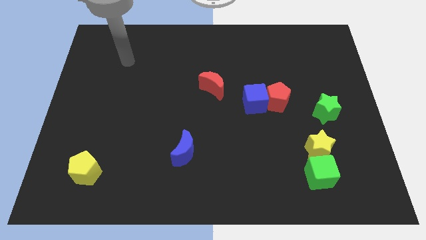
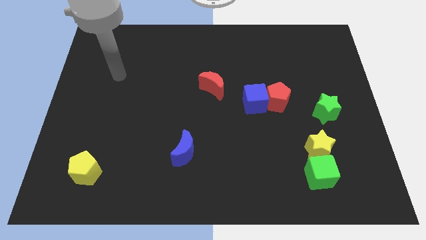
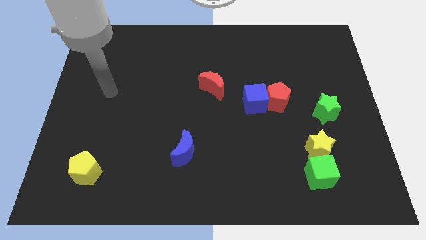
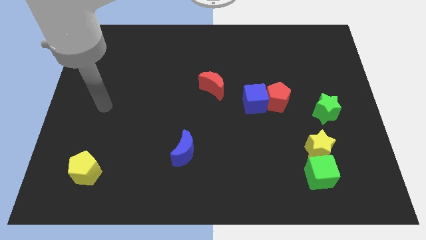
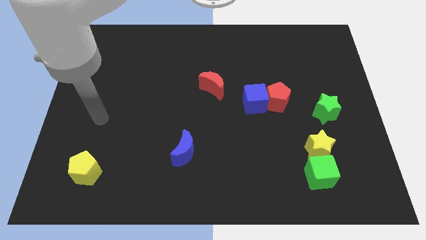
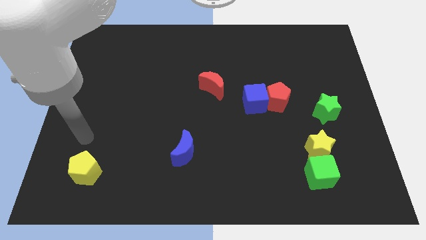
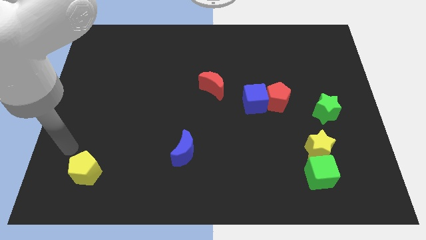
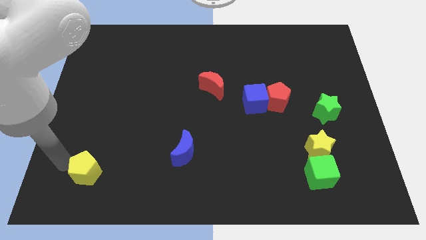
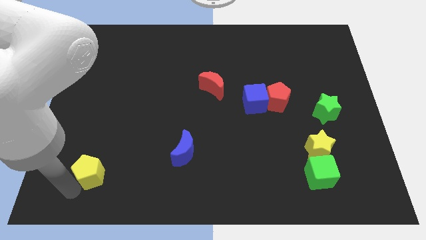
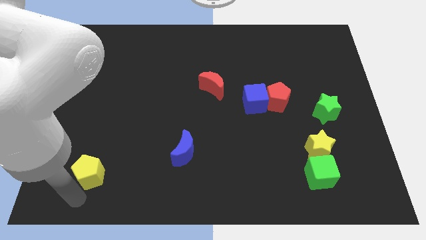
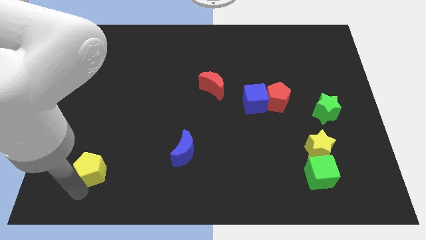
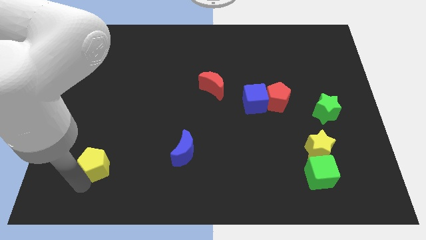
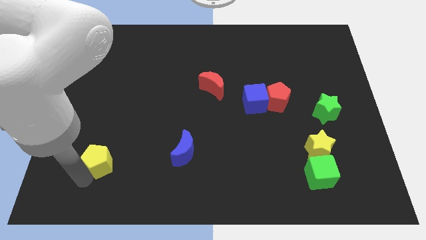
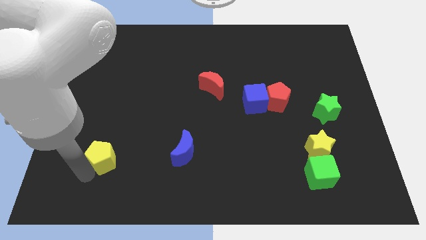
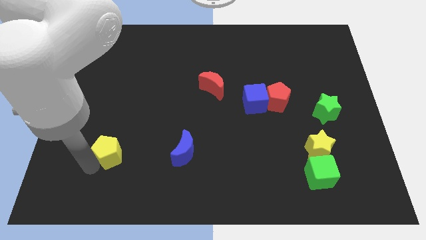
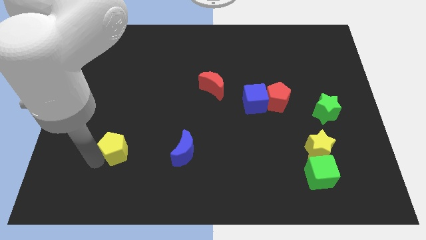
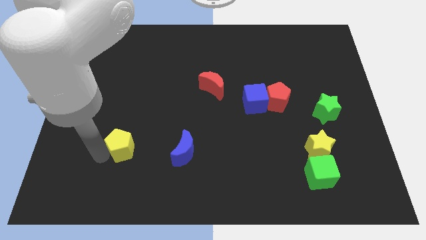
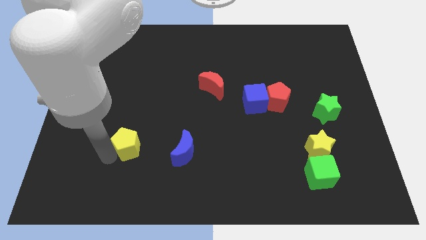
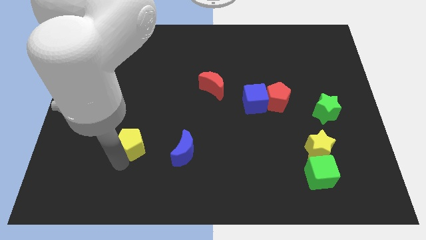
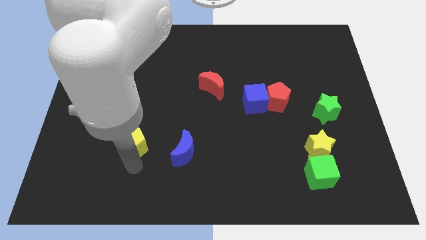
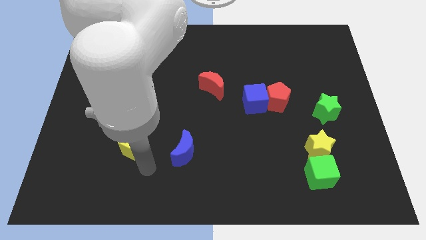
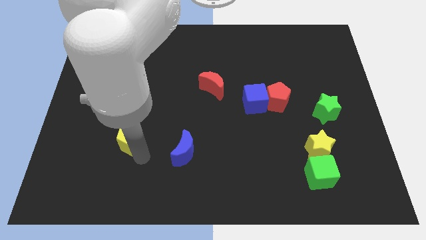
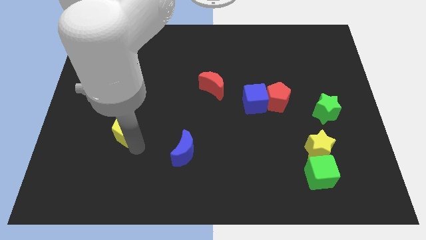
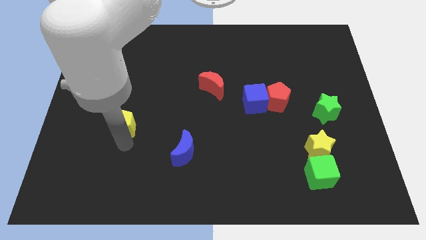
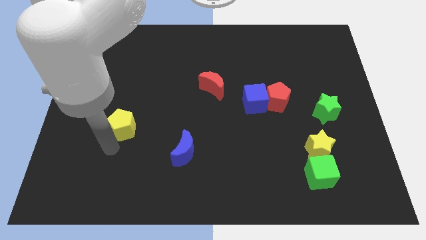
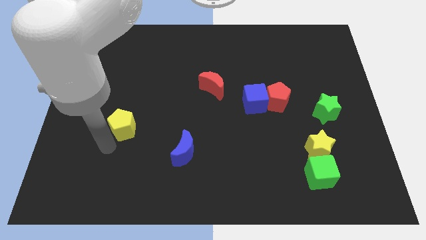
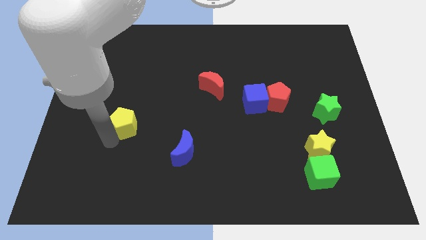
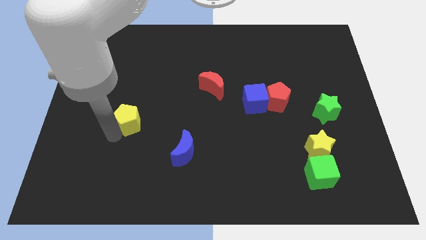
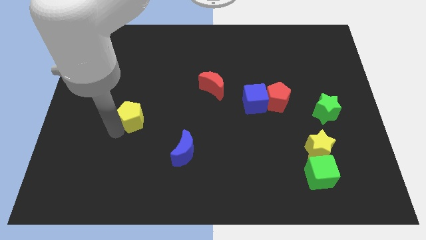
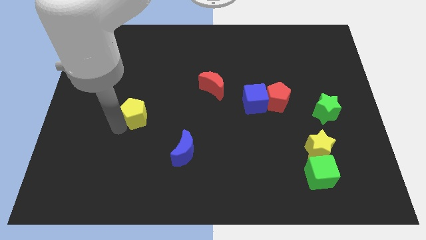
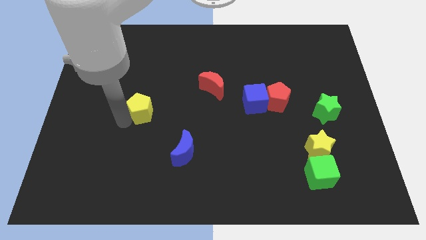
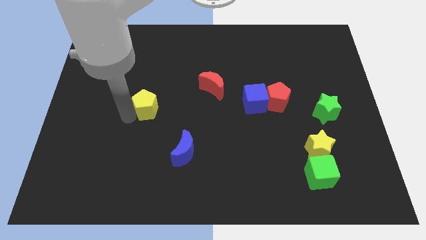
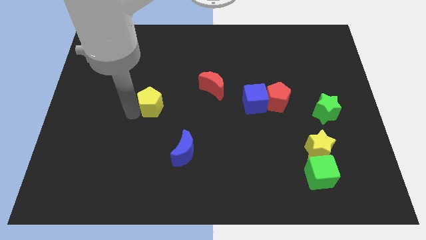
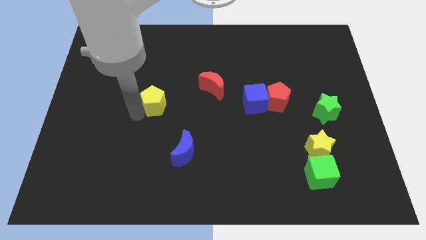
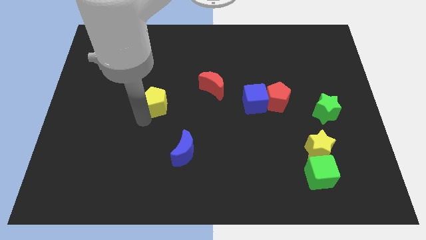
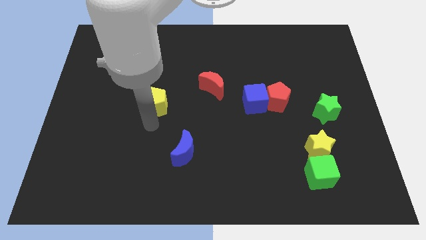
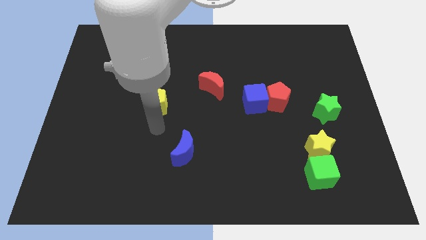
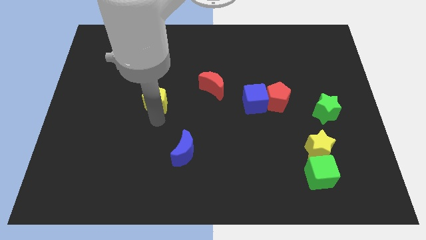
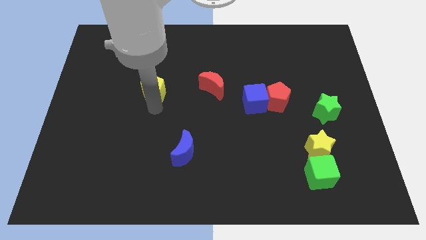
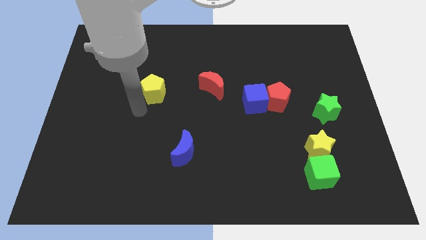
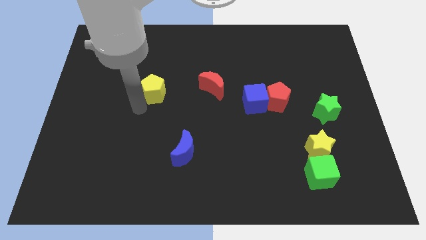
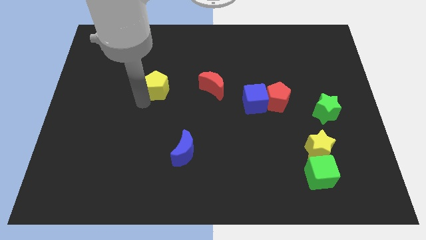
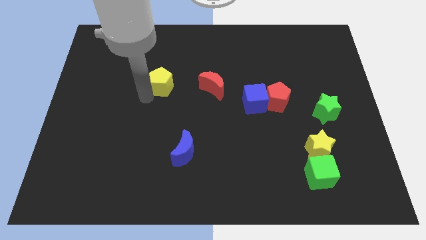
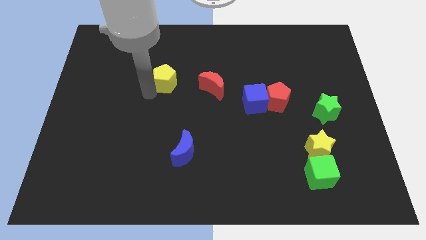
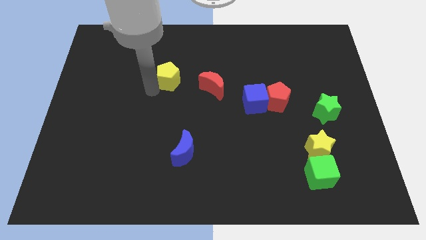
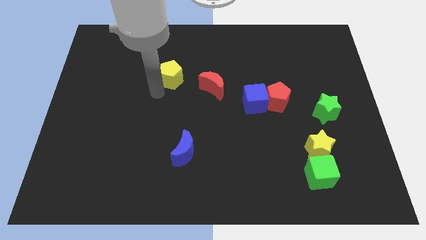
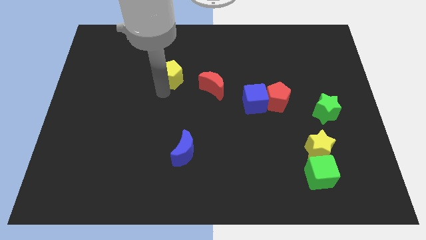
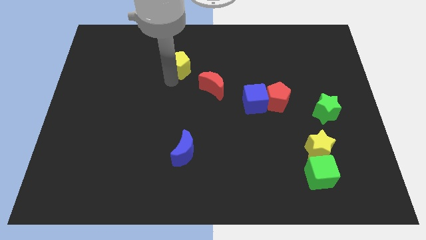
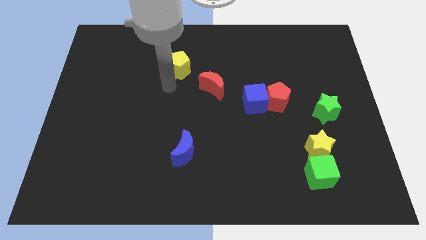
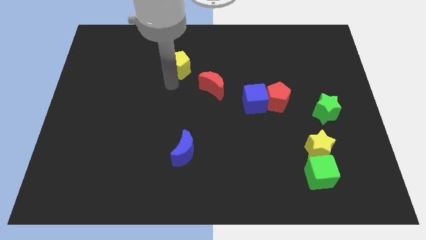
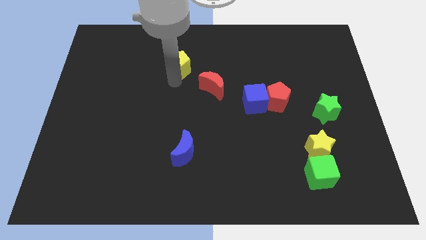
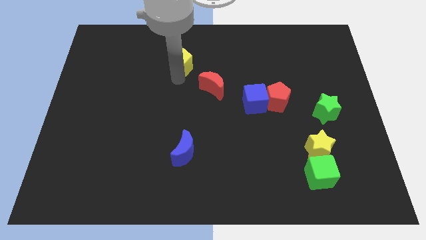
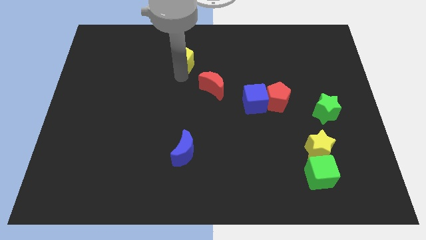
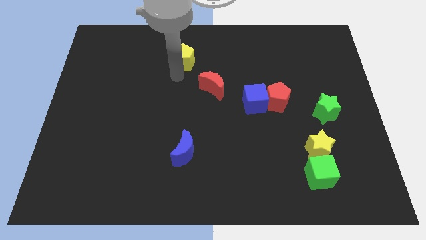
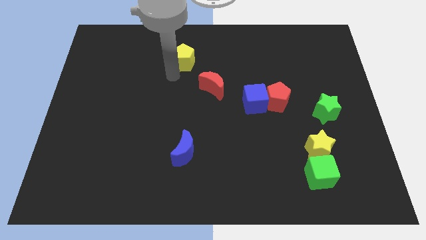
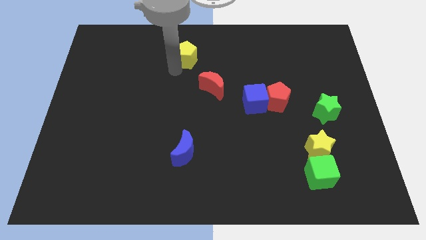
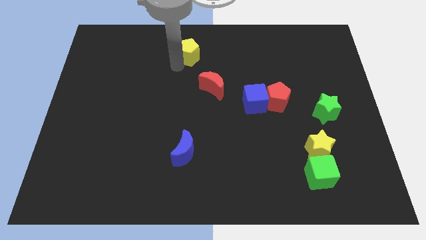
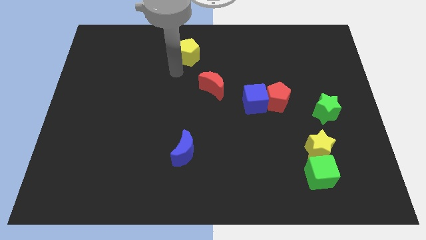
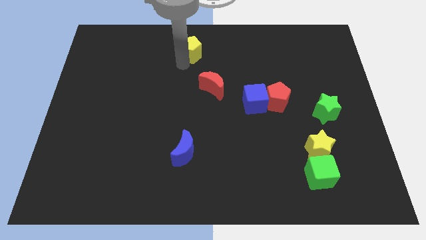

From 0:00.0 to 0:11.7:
push the yellow pentagon to the top
